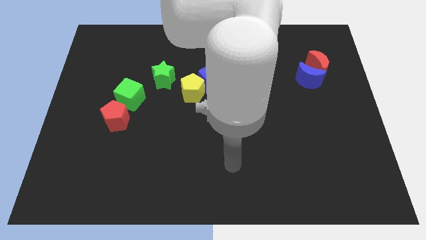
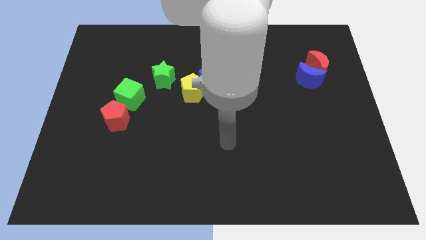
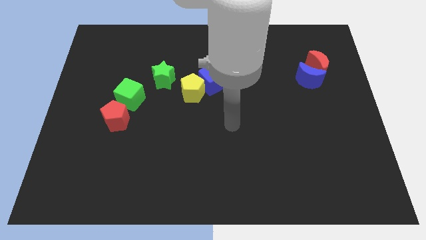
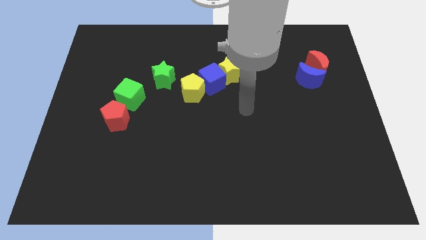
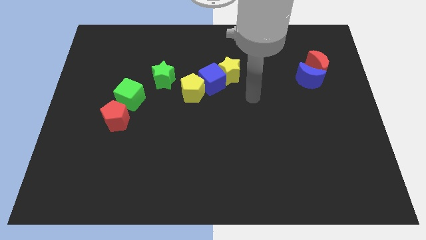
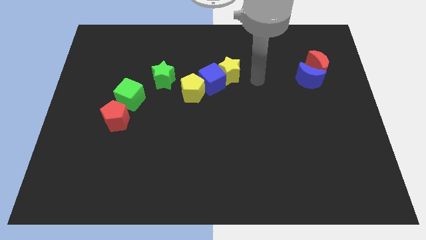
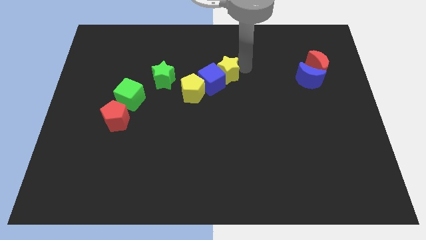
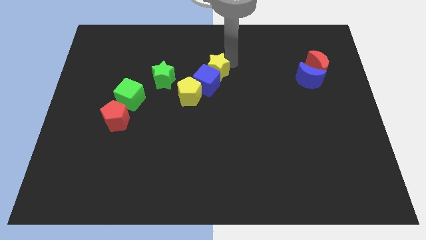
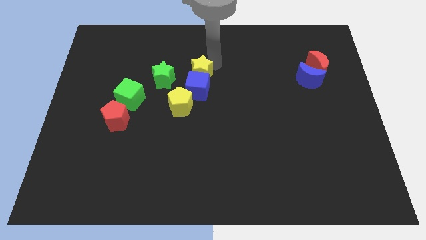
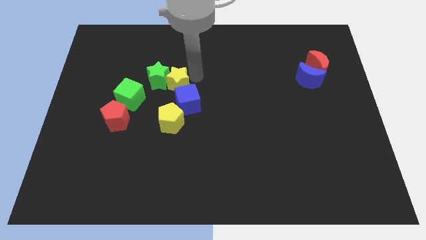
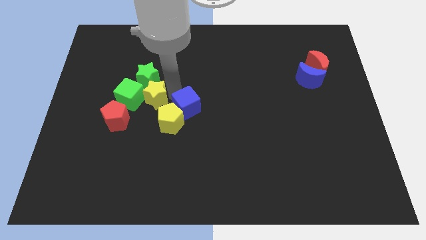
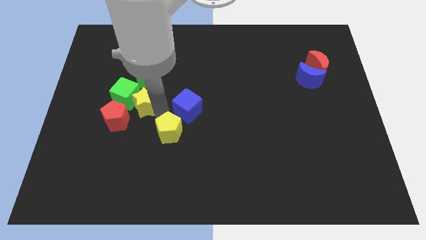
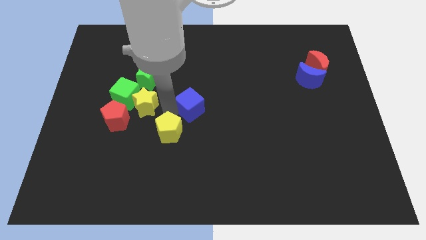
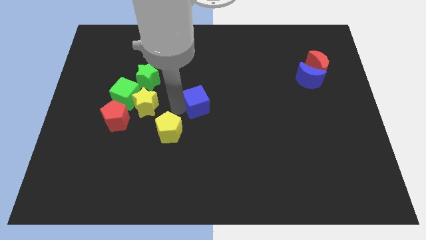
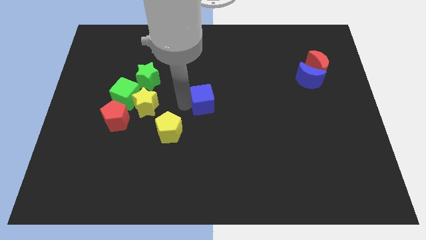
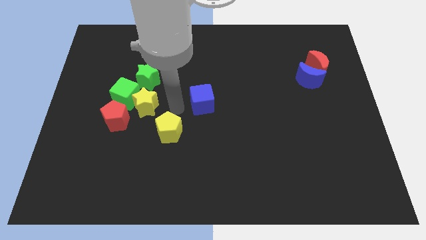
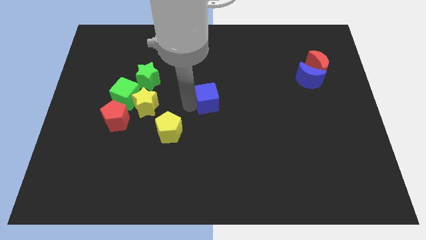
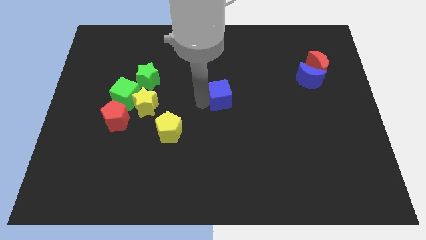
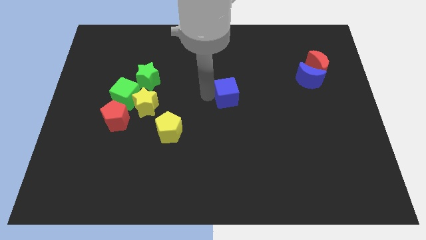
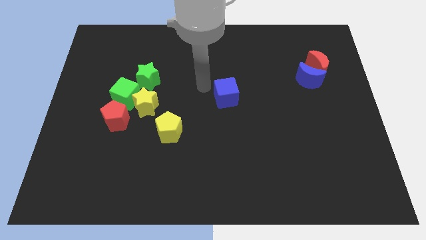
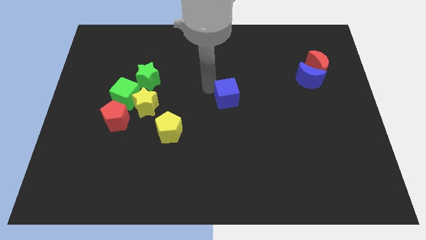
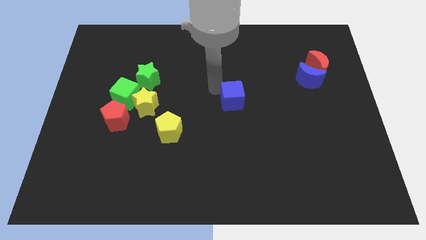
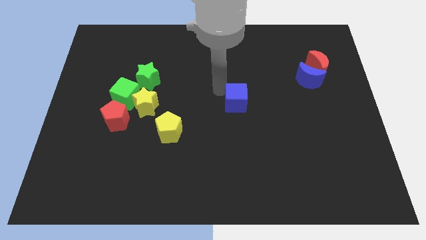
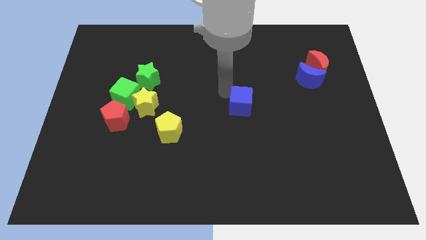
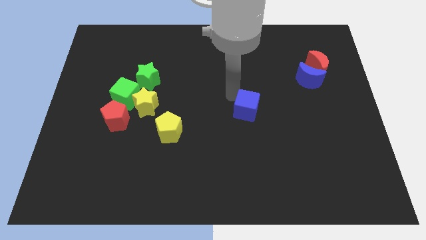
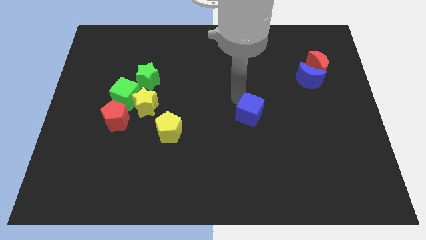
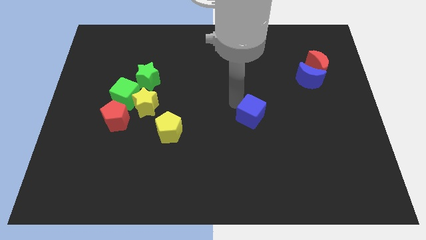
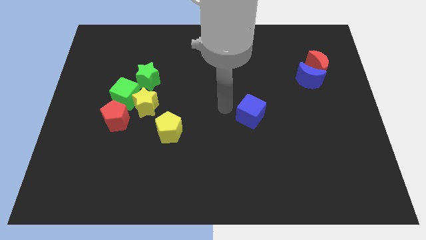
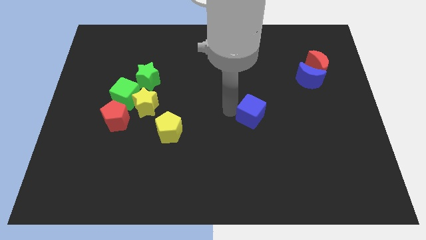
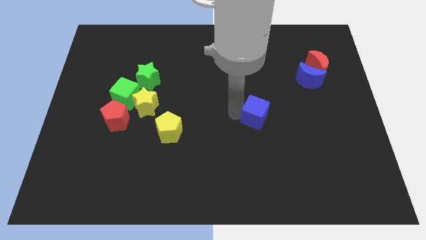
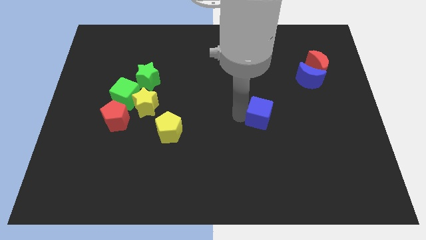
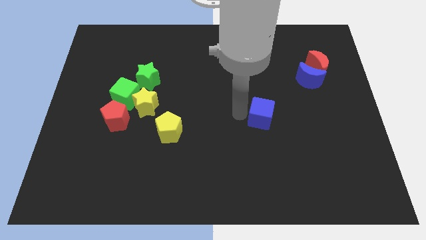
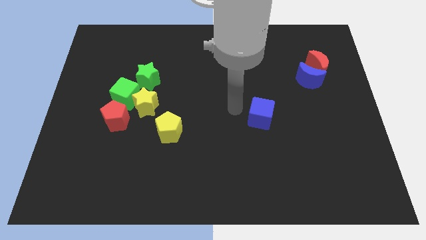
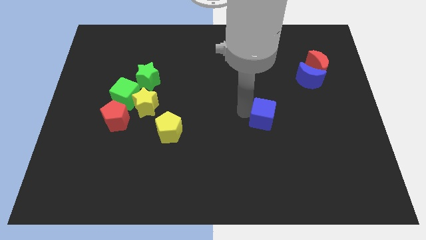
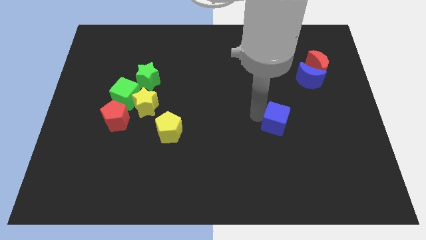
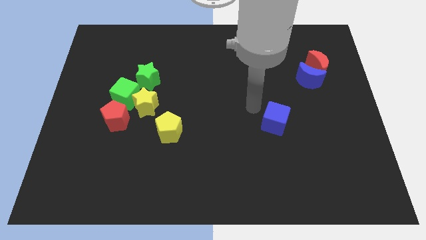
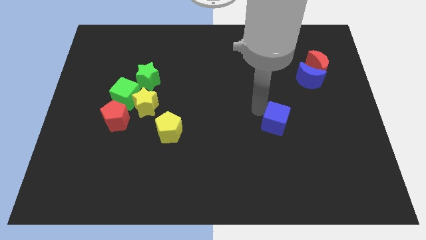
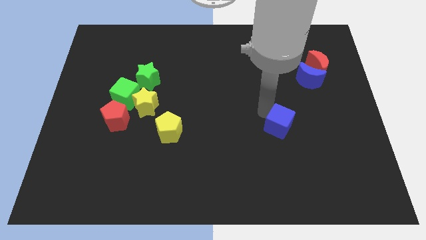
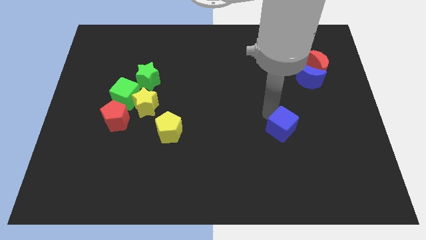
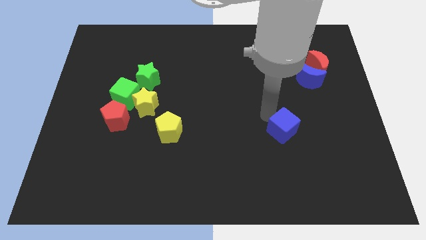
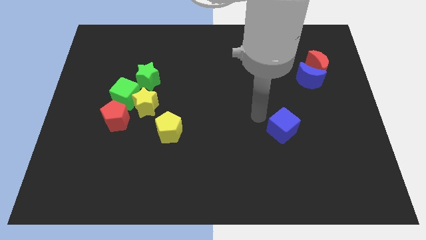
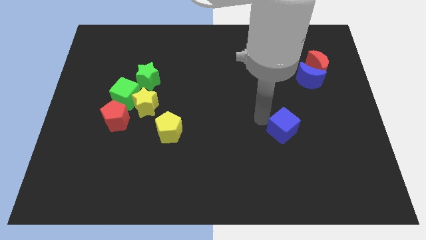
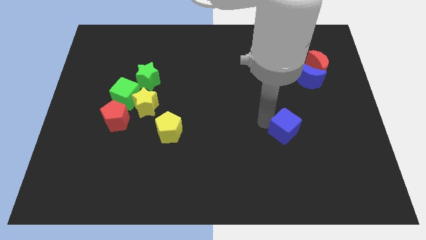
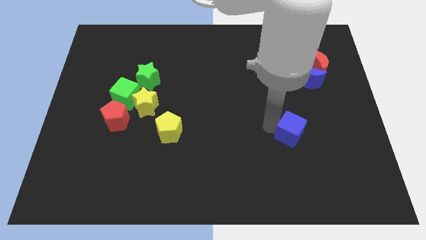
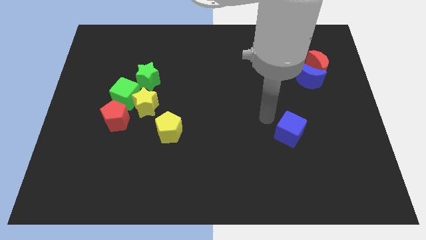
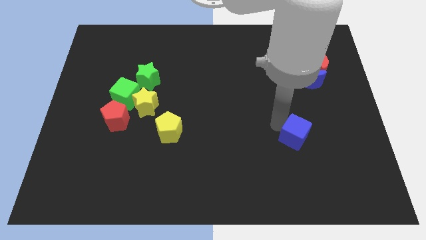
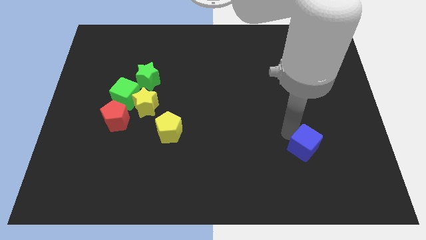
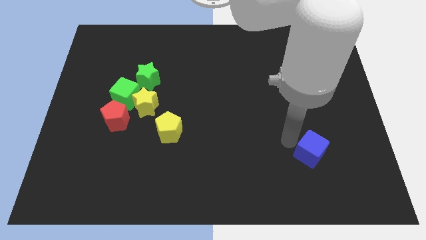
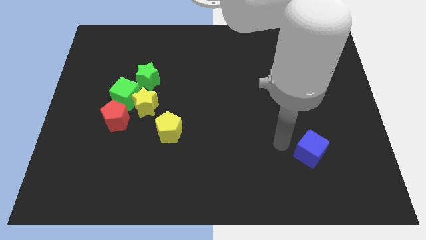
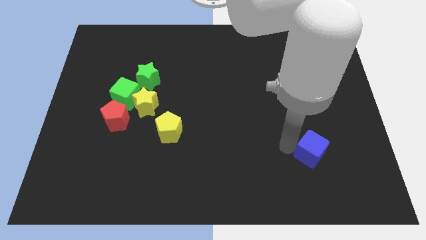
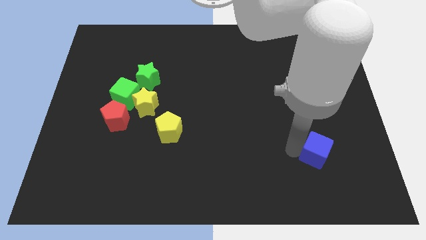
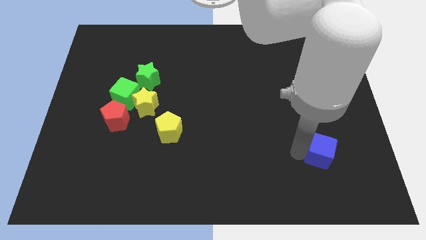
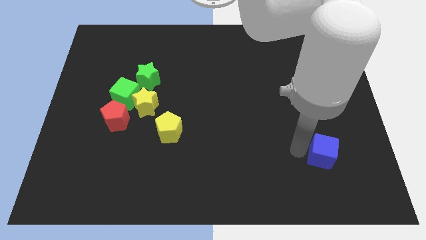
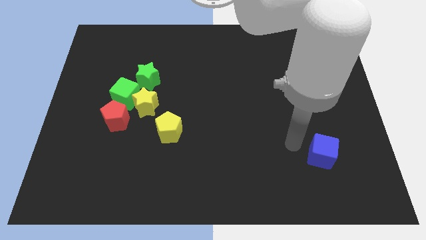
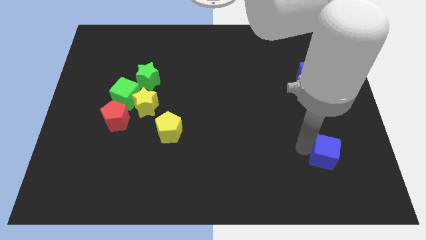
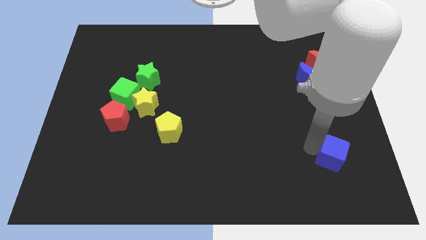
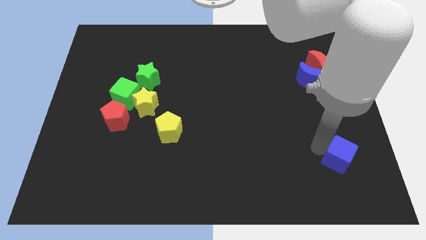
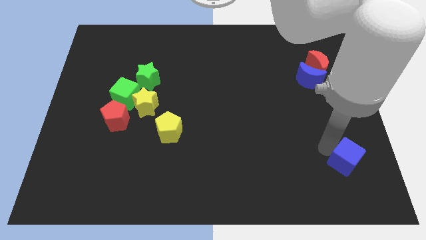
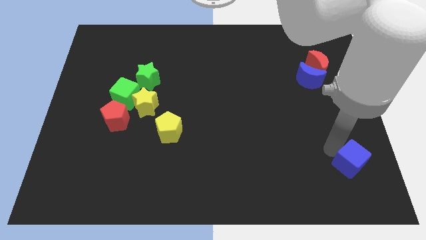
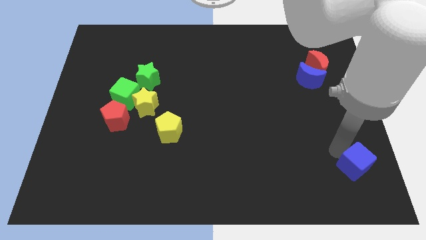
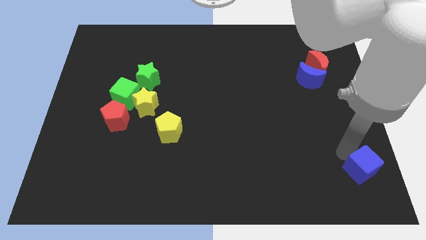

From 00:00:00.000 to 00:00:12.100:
push the blue cube to the bottom right
